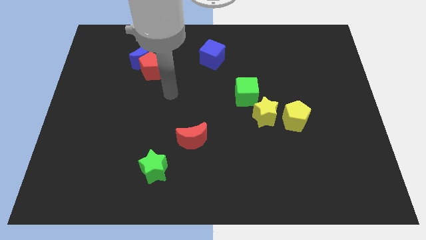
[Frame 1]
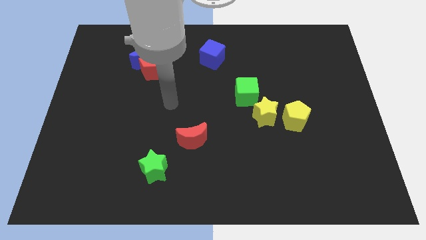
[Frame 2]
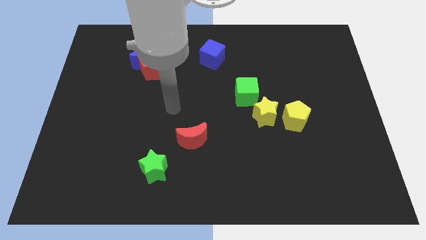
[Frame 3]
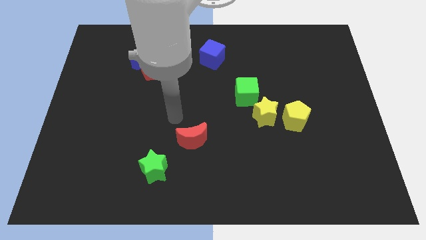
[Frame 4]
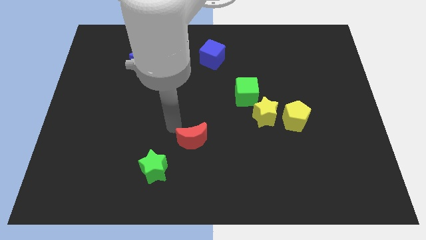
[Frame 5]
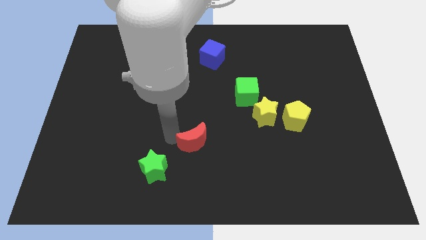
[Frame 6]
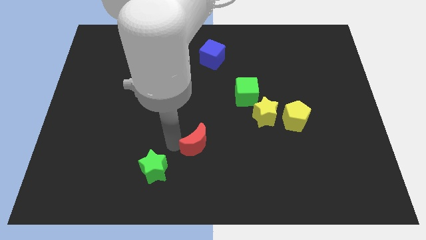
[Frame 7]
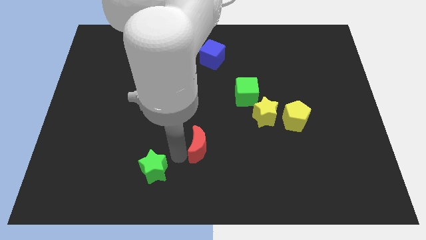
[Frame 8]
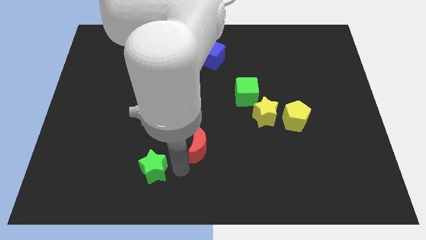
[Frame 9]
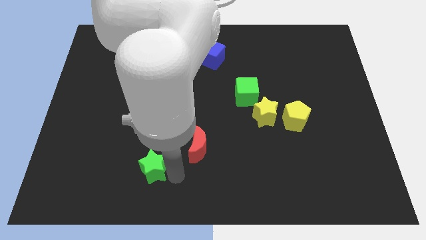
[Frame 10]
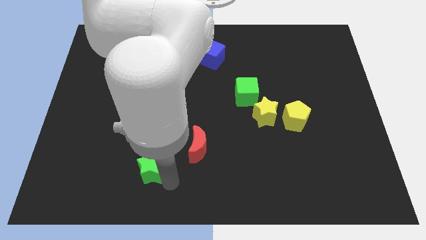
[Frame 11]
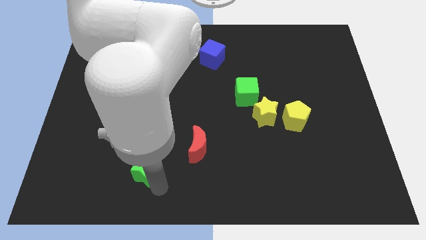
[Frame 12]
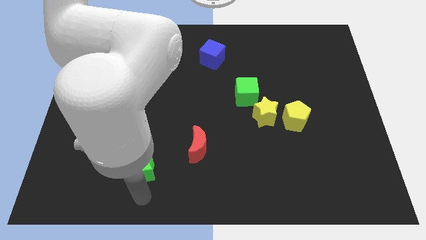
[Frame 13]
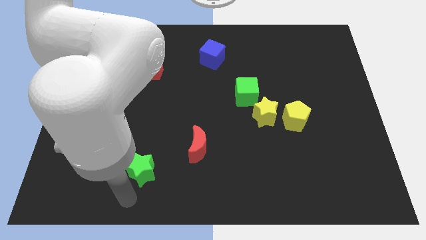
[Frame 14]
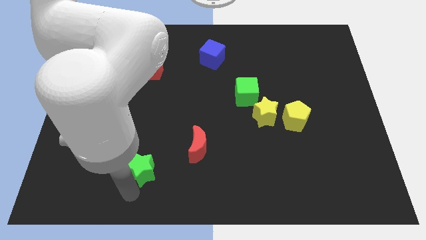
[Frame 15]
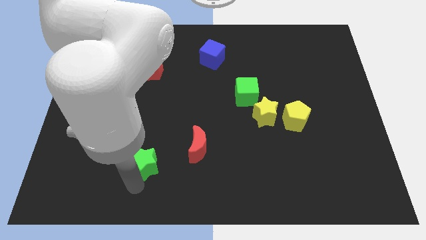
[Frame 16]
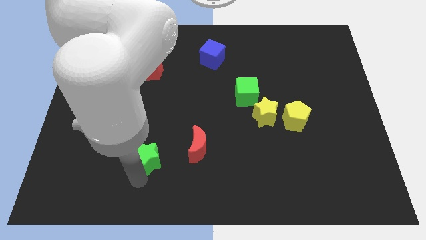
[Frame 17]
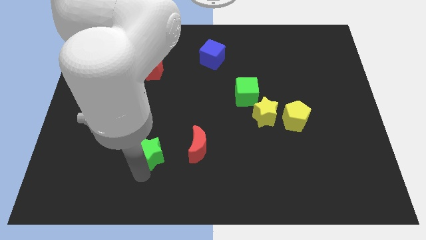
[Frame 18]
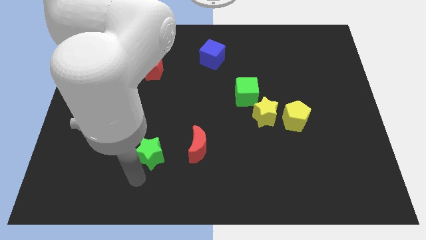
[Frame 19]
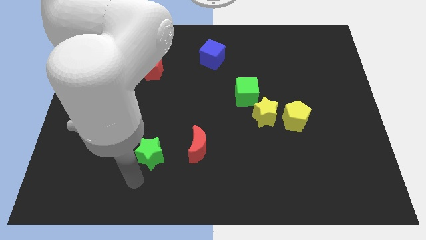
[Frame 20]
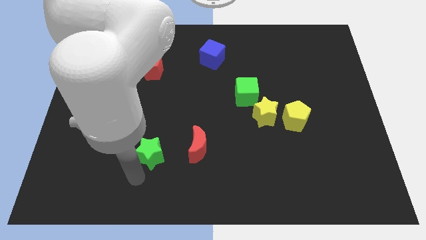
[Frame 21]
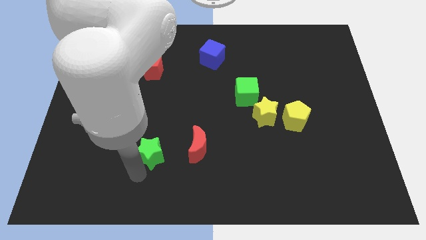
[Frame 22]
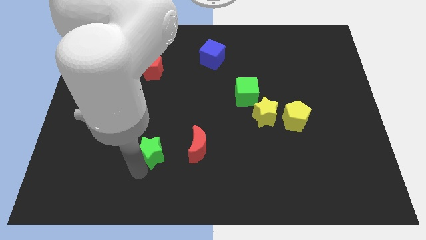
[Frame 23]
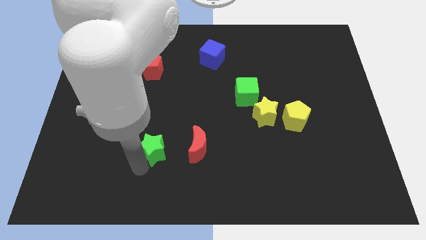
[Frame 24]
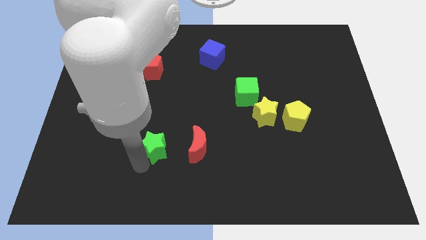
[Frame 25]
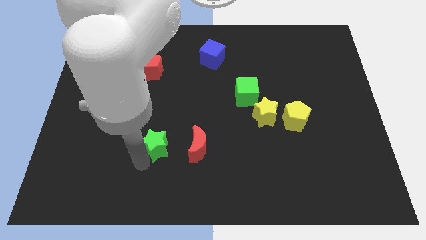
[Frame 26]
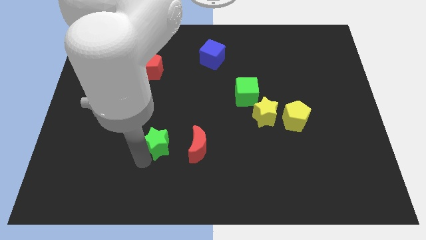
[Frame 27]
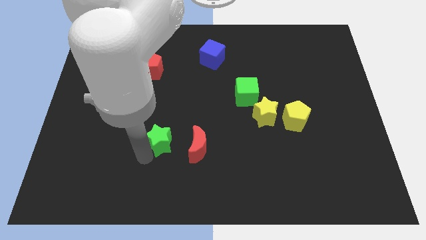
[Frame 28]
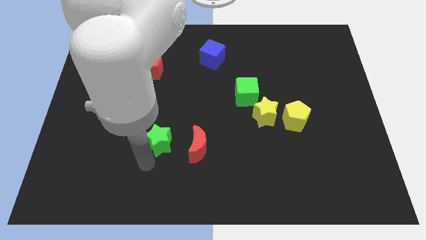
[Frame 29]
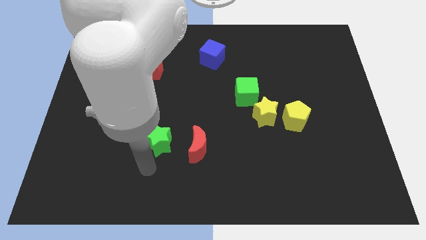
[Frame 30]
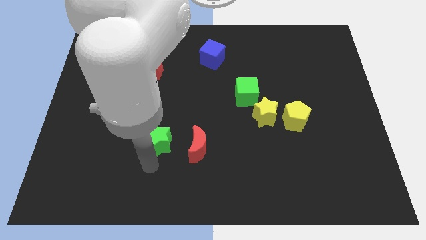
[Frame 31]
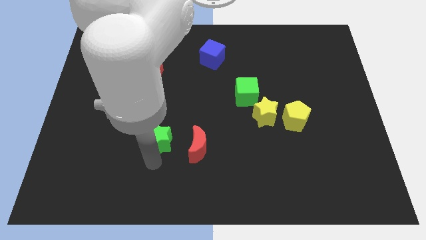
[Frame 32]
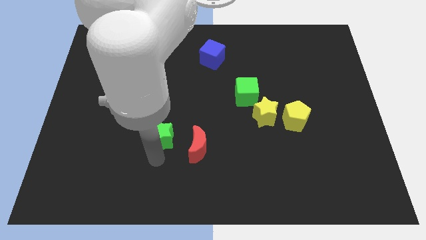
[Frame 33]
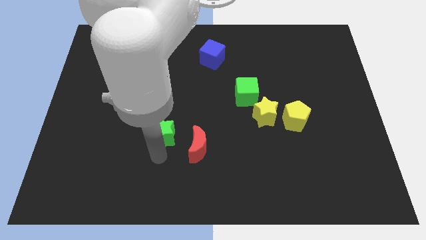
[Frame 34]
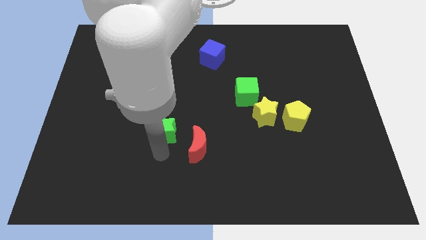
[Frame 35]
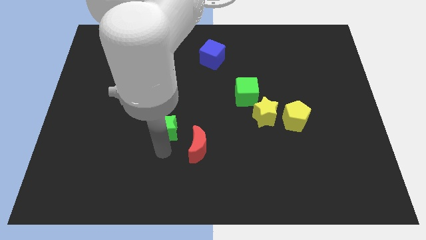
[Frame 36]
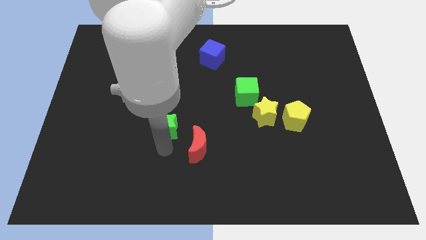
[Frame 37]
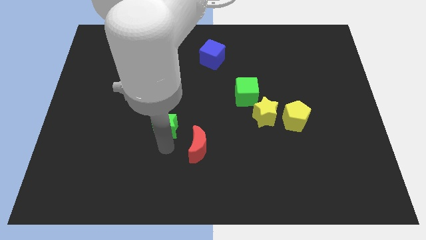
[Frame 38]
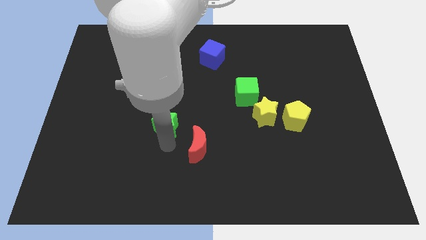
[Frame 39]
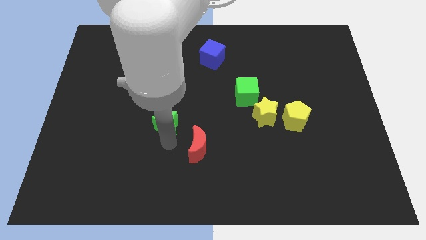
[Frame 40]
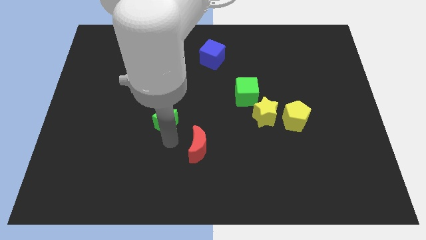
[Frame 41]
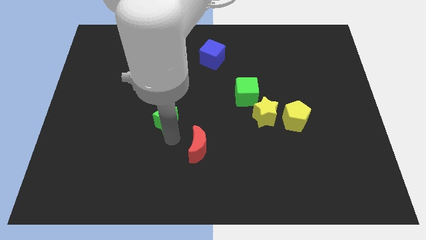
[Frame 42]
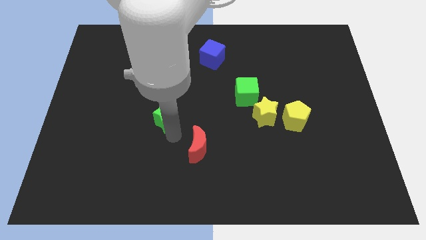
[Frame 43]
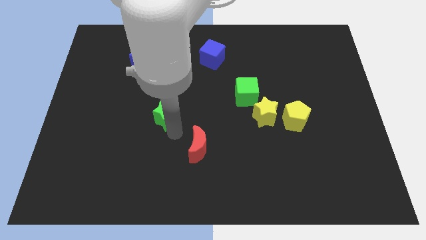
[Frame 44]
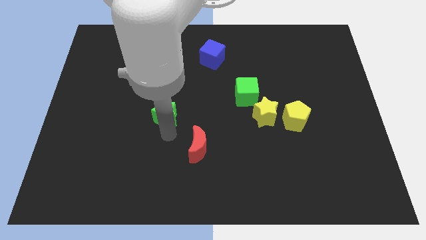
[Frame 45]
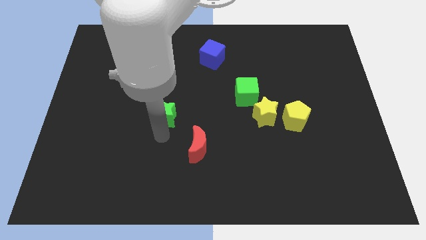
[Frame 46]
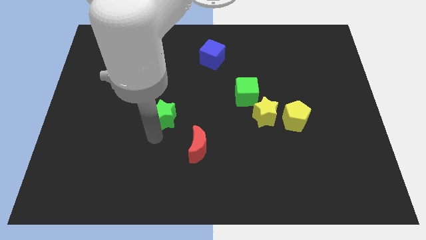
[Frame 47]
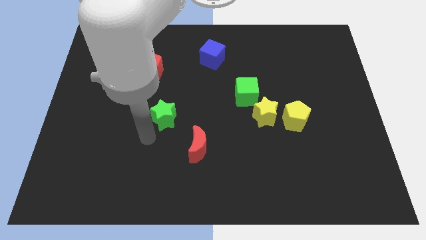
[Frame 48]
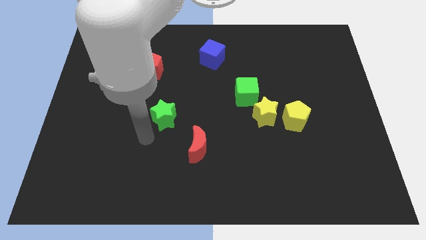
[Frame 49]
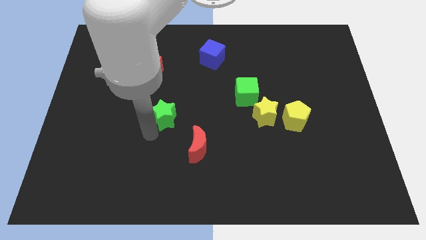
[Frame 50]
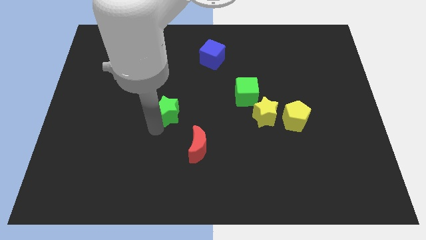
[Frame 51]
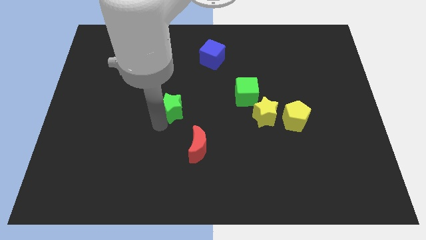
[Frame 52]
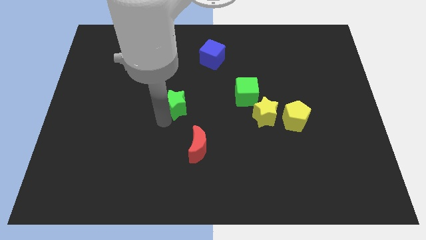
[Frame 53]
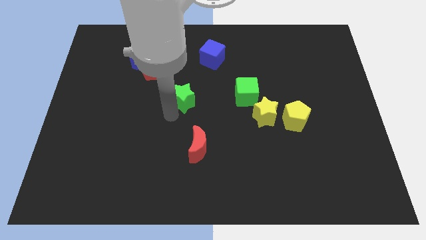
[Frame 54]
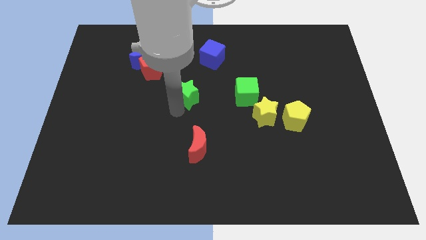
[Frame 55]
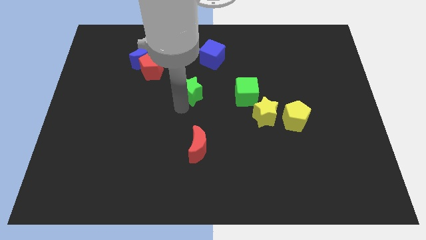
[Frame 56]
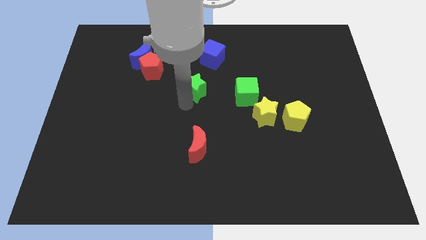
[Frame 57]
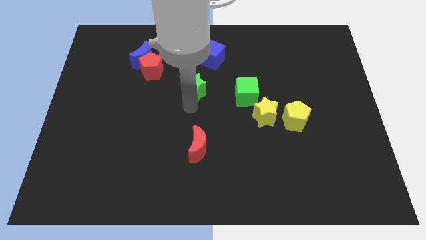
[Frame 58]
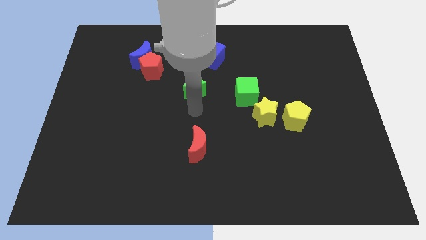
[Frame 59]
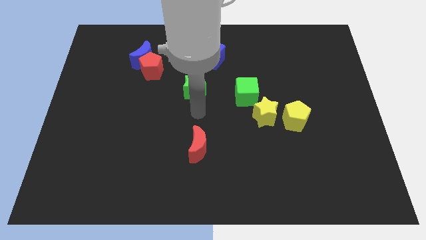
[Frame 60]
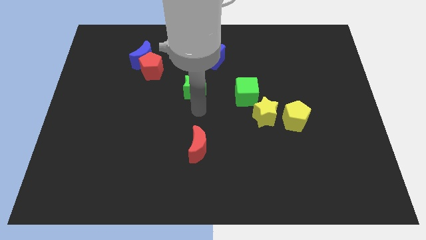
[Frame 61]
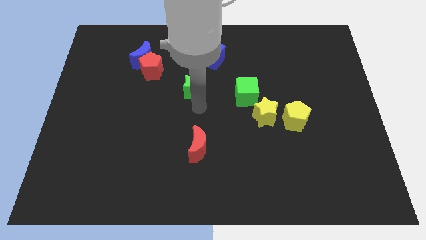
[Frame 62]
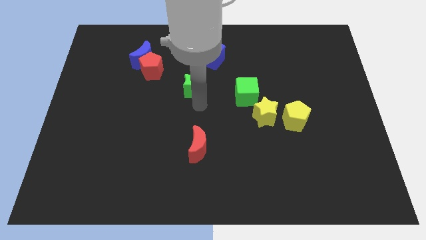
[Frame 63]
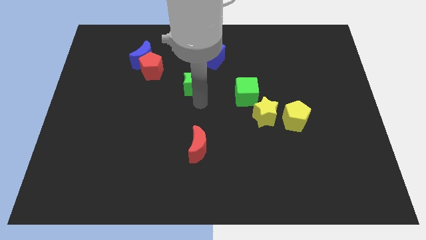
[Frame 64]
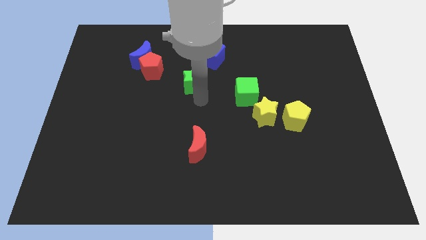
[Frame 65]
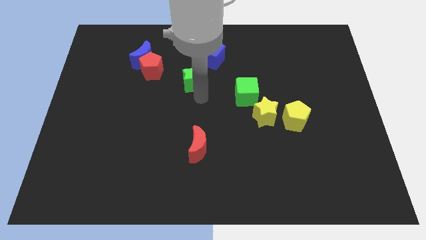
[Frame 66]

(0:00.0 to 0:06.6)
slide the green star to the right side of the red pentagon
